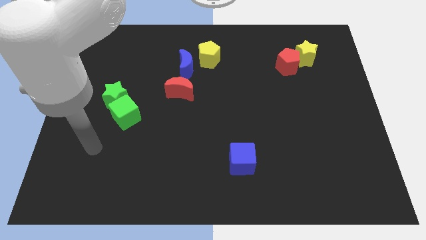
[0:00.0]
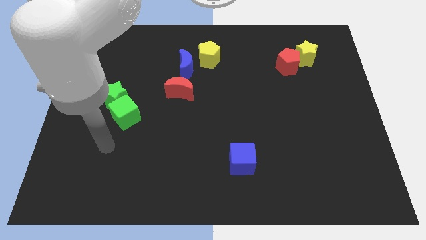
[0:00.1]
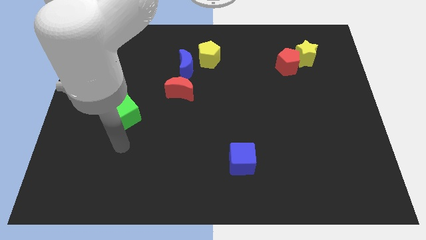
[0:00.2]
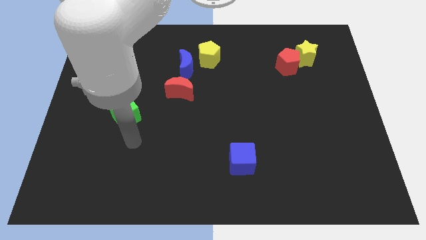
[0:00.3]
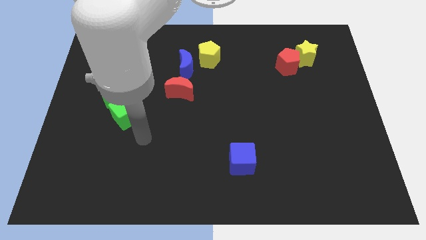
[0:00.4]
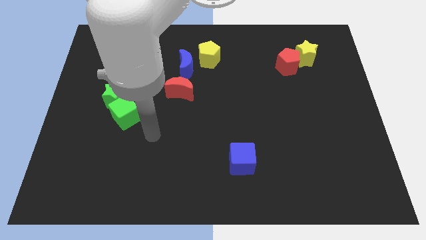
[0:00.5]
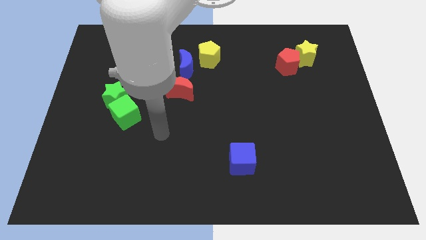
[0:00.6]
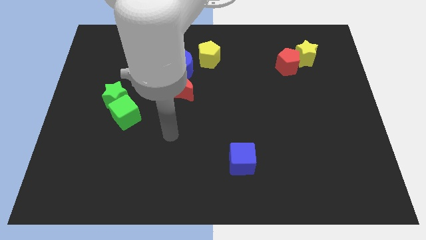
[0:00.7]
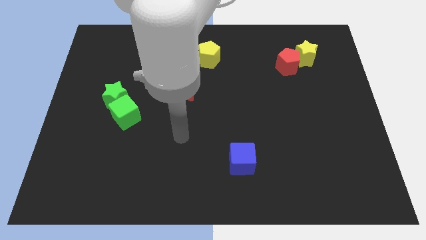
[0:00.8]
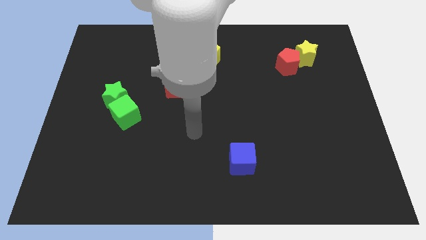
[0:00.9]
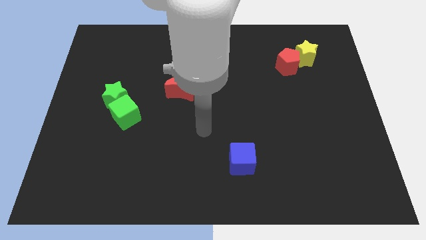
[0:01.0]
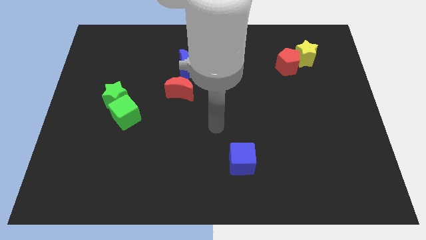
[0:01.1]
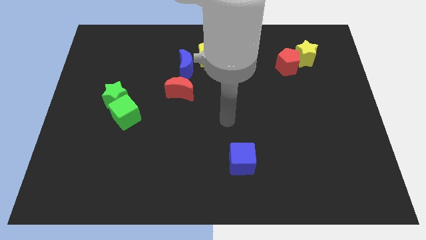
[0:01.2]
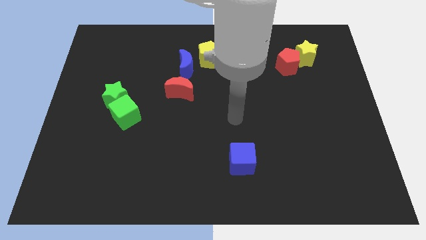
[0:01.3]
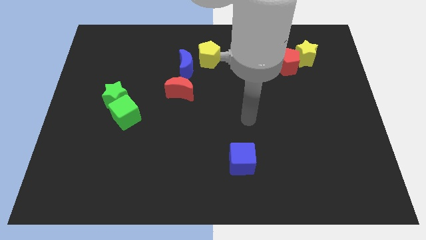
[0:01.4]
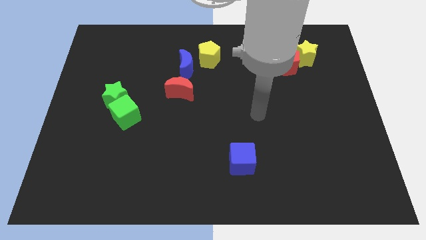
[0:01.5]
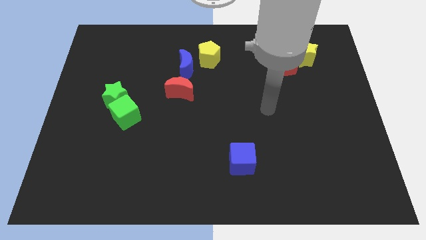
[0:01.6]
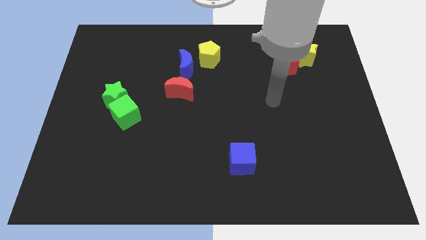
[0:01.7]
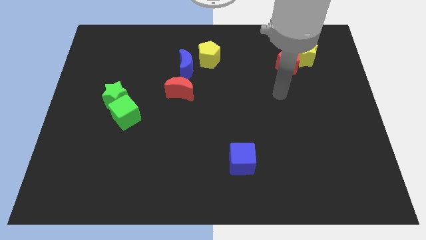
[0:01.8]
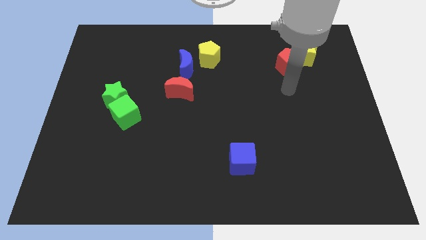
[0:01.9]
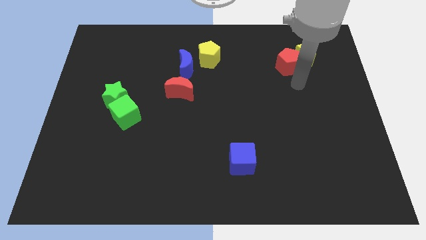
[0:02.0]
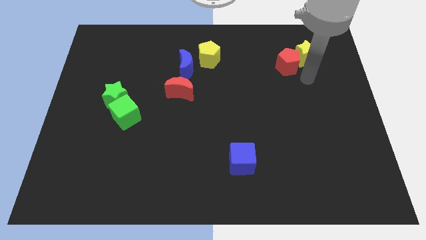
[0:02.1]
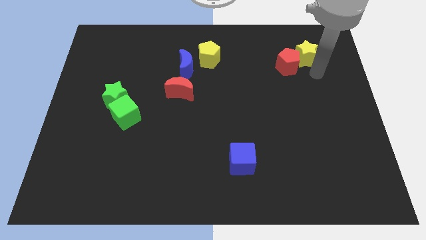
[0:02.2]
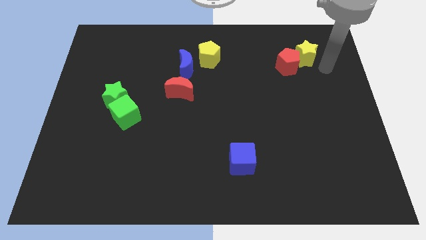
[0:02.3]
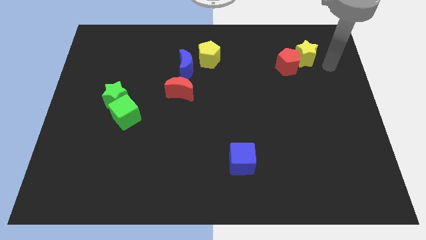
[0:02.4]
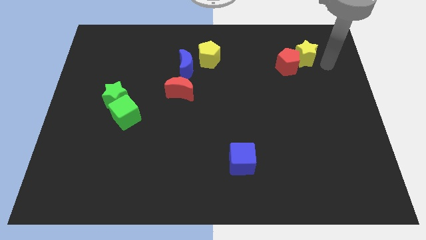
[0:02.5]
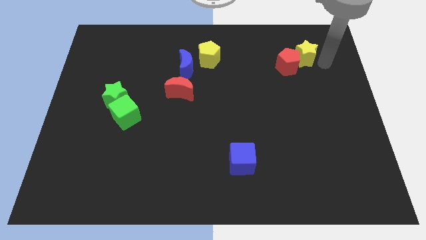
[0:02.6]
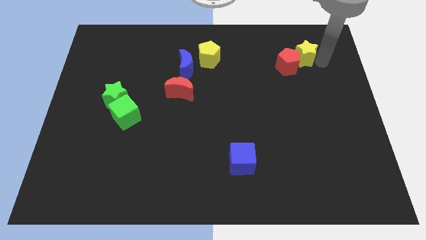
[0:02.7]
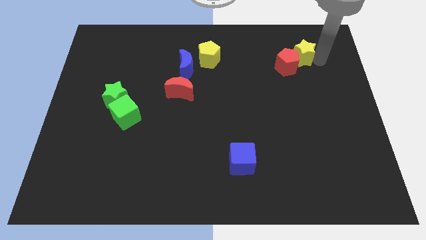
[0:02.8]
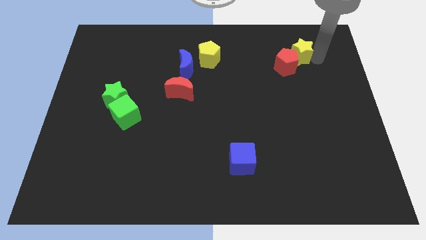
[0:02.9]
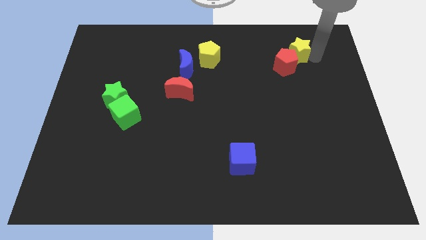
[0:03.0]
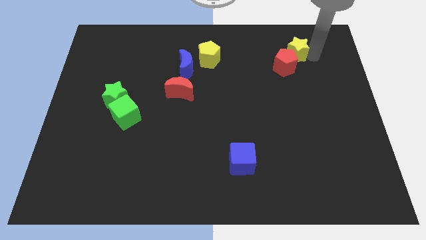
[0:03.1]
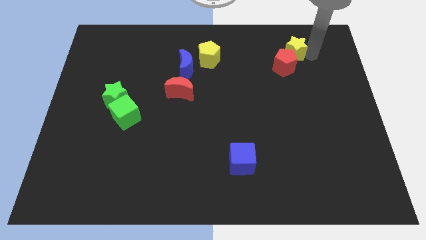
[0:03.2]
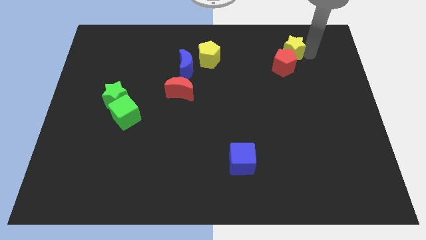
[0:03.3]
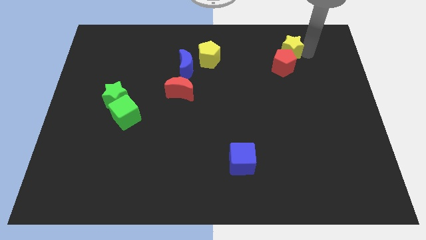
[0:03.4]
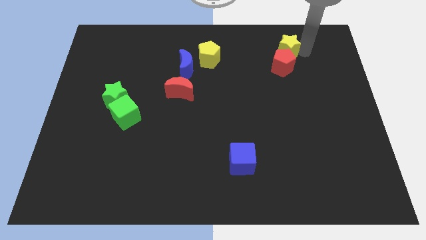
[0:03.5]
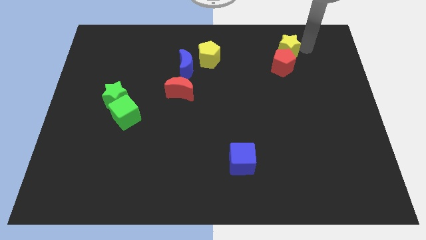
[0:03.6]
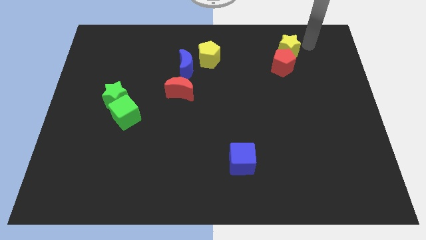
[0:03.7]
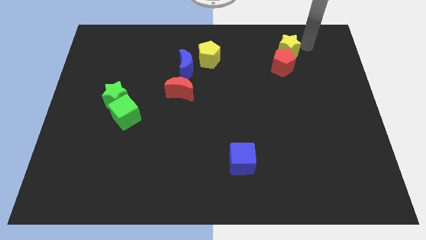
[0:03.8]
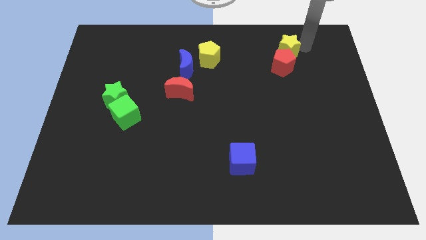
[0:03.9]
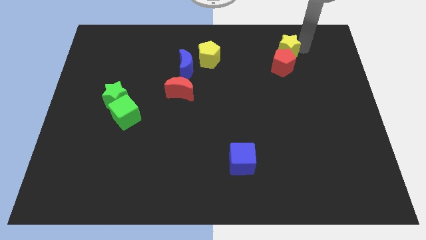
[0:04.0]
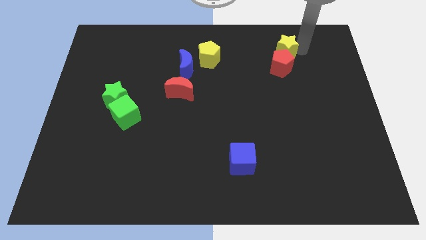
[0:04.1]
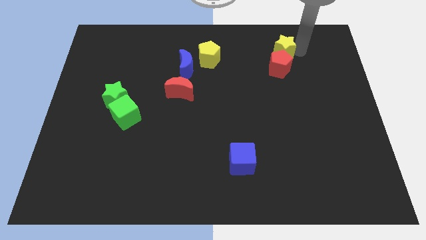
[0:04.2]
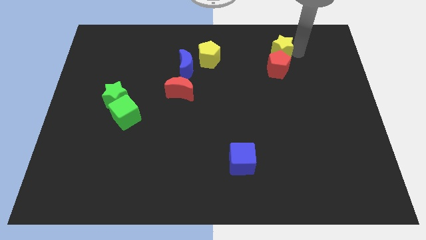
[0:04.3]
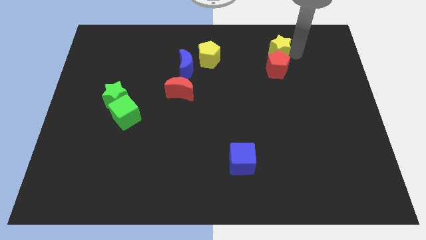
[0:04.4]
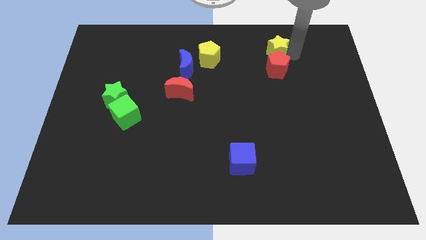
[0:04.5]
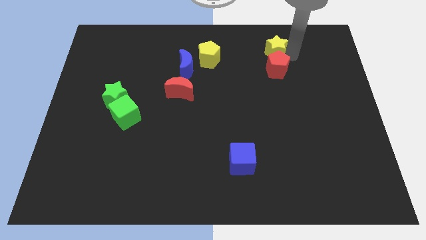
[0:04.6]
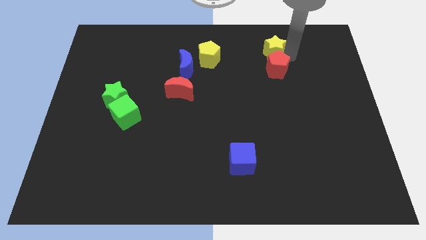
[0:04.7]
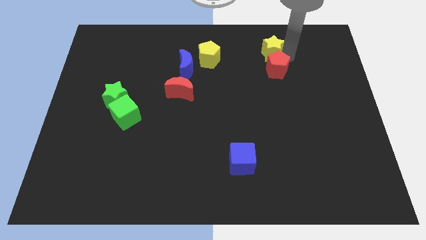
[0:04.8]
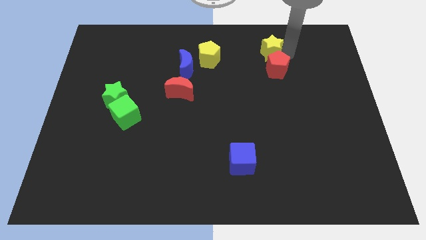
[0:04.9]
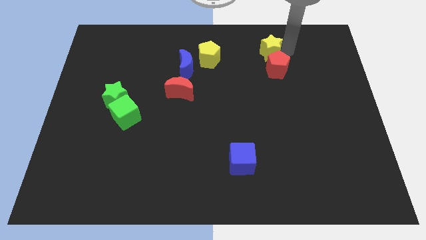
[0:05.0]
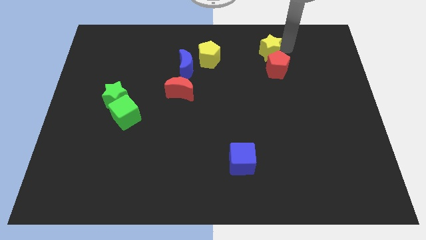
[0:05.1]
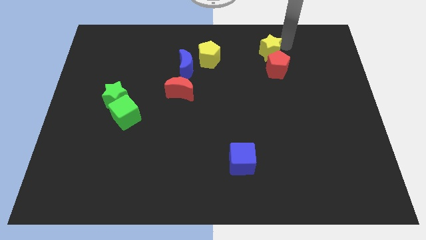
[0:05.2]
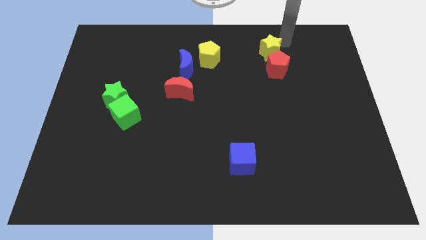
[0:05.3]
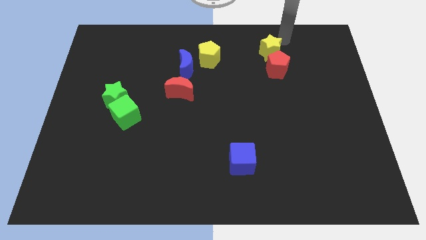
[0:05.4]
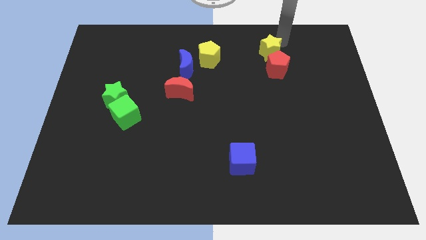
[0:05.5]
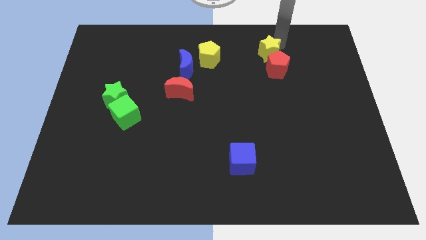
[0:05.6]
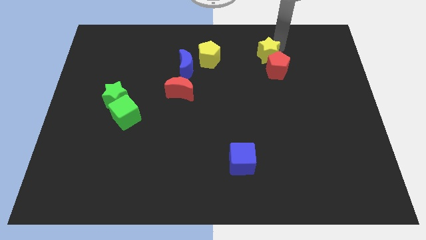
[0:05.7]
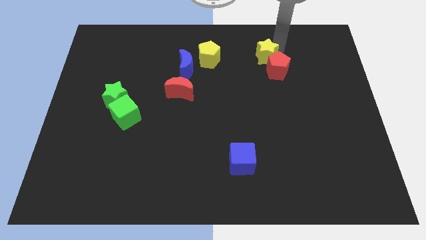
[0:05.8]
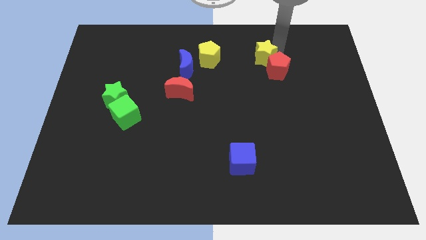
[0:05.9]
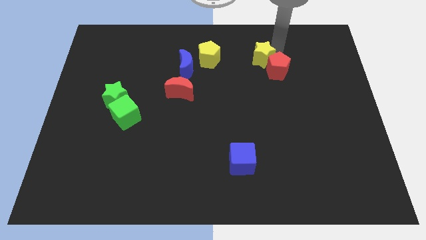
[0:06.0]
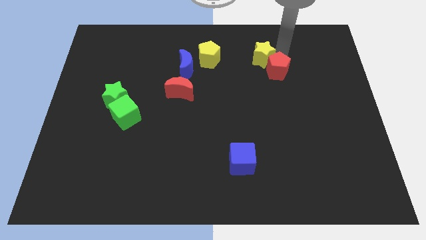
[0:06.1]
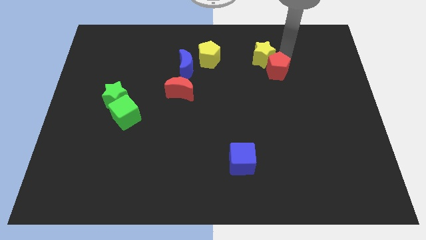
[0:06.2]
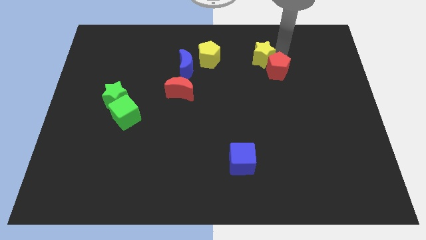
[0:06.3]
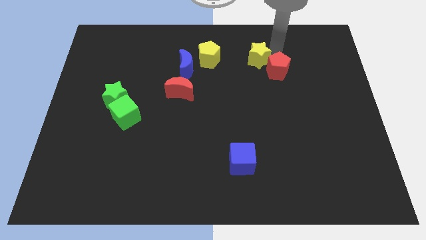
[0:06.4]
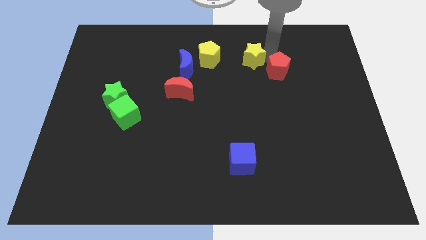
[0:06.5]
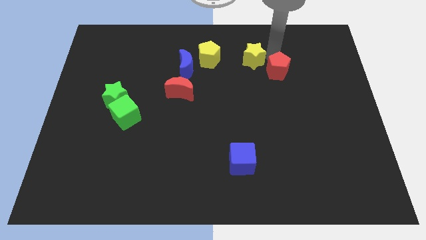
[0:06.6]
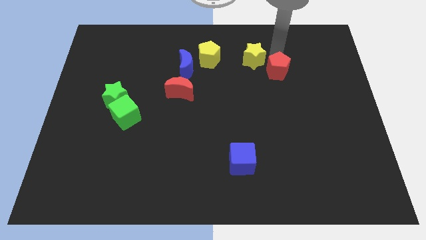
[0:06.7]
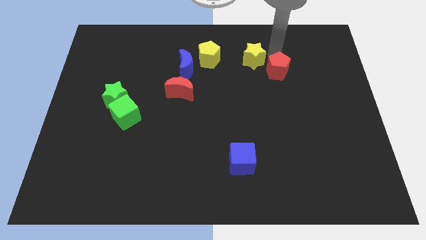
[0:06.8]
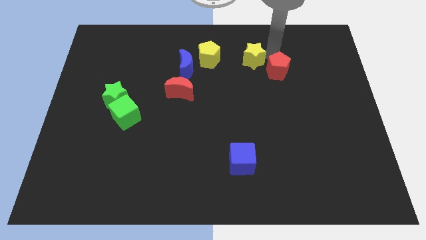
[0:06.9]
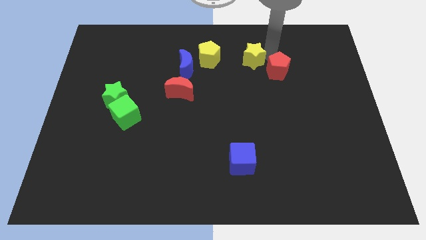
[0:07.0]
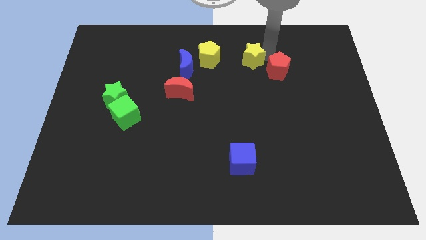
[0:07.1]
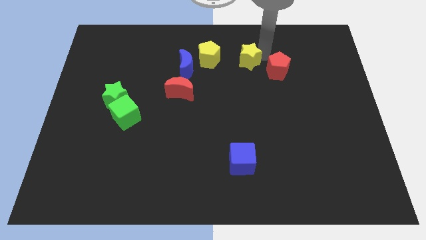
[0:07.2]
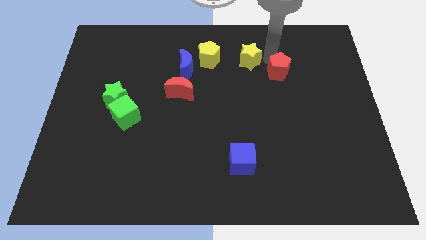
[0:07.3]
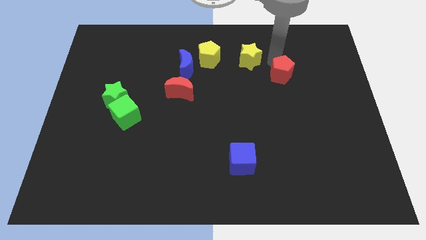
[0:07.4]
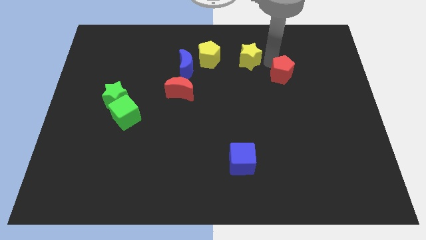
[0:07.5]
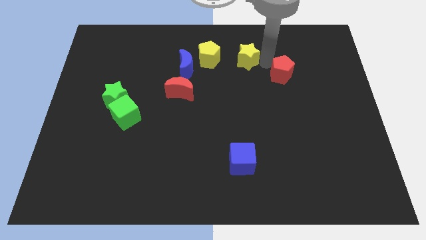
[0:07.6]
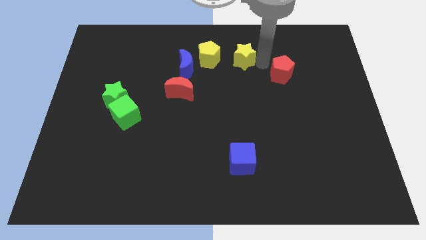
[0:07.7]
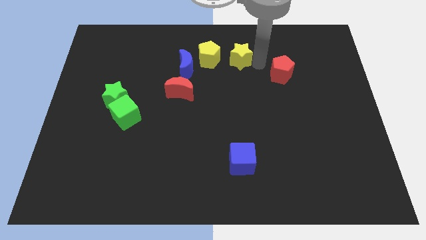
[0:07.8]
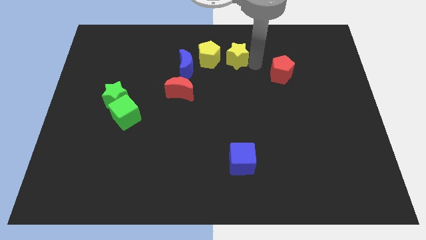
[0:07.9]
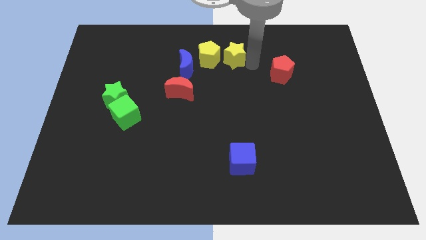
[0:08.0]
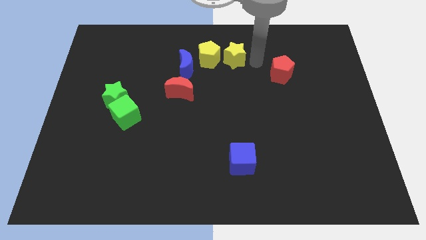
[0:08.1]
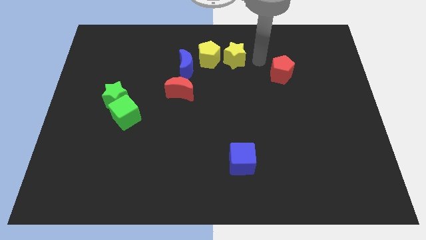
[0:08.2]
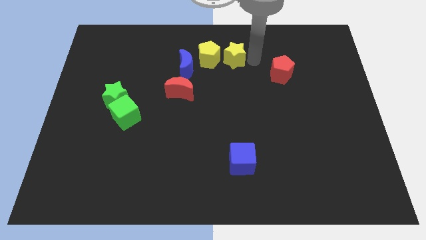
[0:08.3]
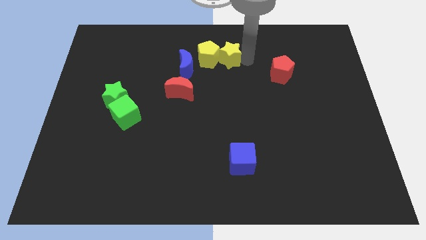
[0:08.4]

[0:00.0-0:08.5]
push the yellow star to the yellow pentagon
